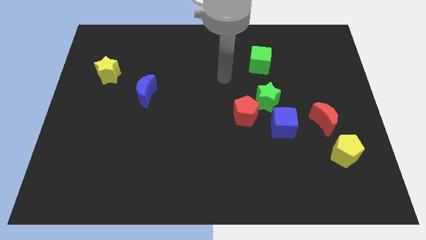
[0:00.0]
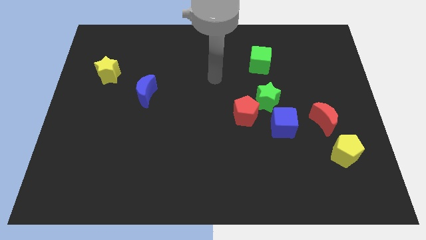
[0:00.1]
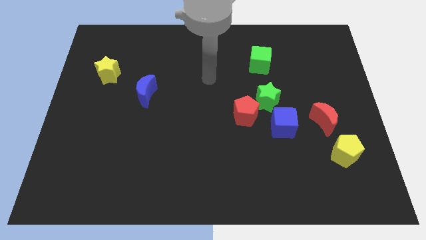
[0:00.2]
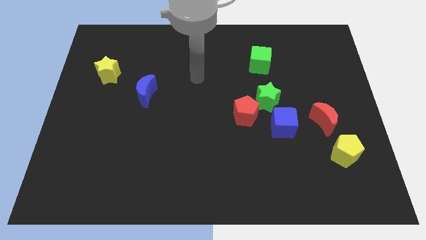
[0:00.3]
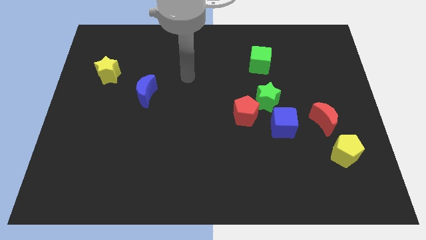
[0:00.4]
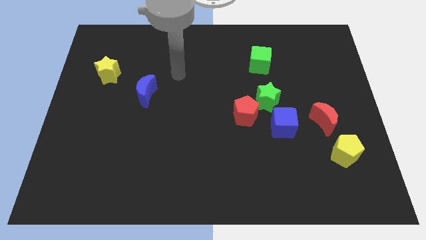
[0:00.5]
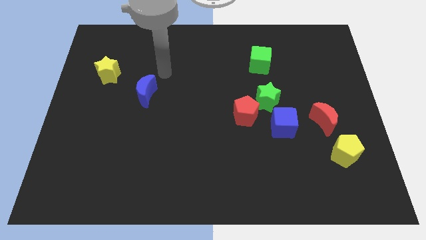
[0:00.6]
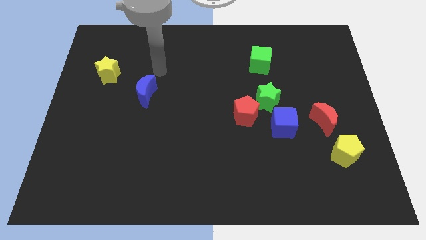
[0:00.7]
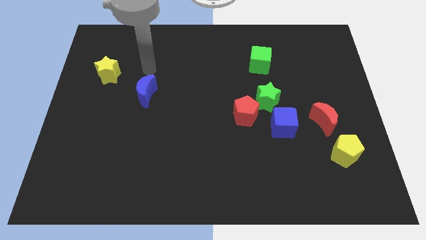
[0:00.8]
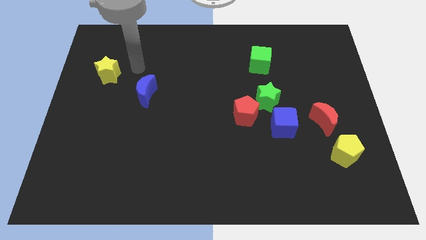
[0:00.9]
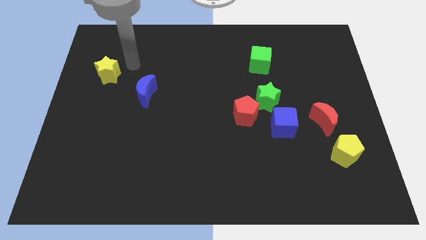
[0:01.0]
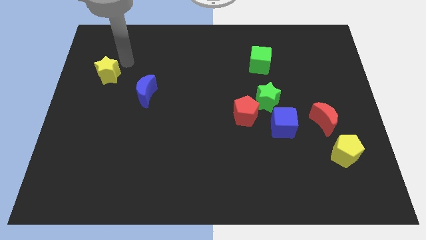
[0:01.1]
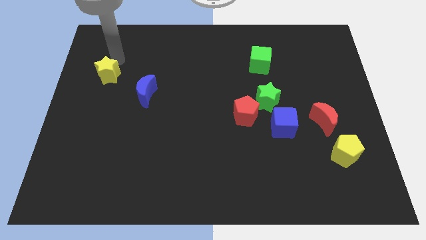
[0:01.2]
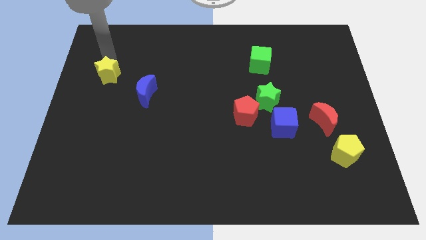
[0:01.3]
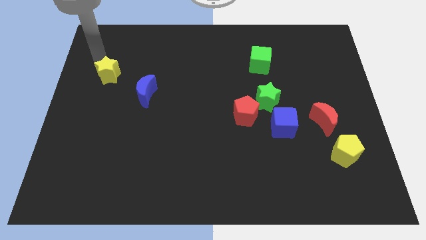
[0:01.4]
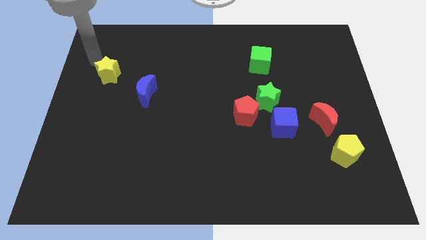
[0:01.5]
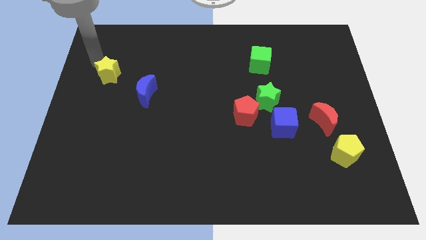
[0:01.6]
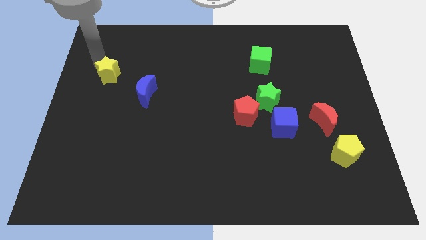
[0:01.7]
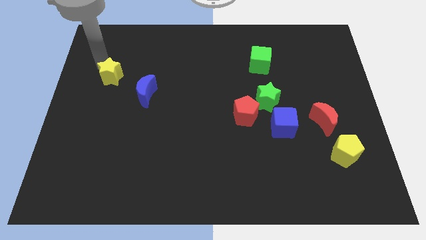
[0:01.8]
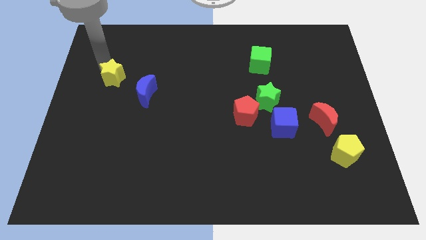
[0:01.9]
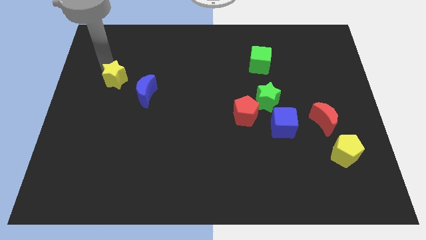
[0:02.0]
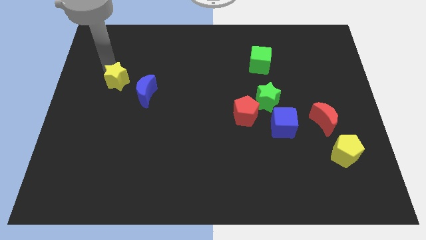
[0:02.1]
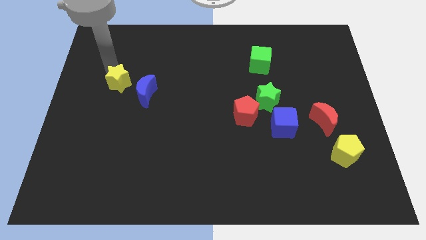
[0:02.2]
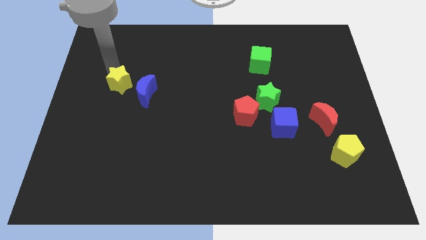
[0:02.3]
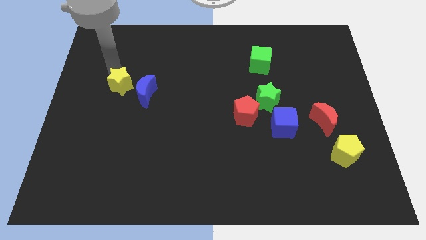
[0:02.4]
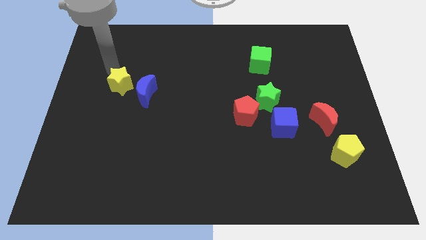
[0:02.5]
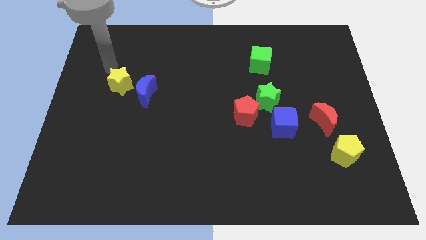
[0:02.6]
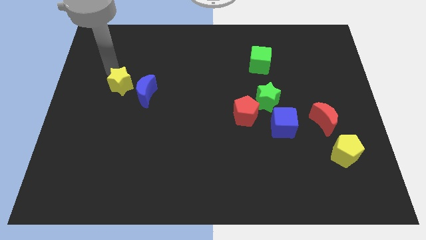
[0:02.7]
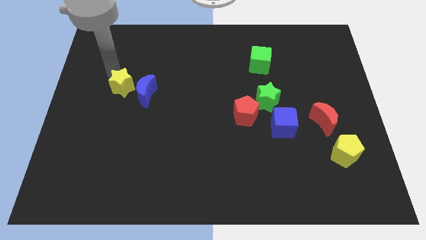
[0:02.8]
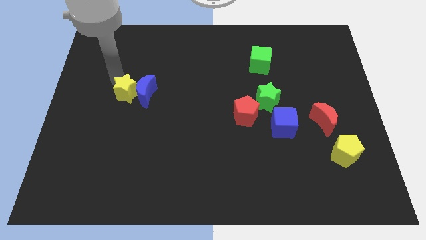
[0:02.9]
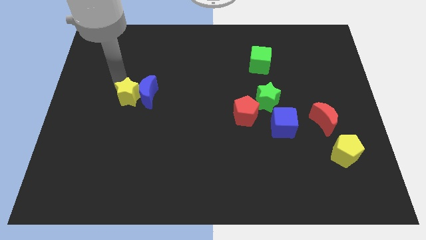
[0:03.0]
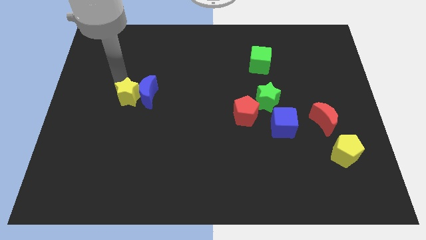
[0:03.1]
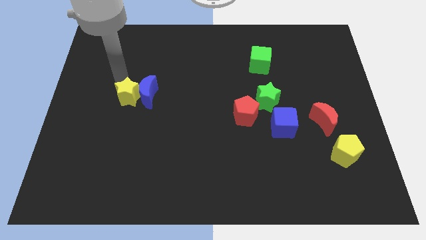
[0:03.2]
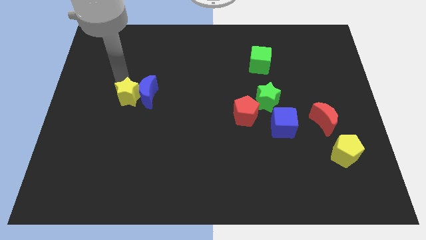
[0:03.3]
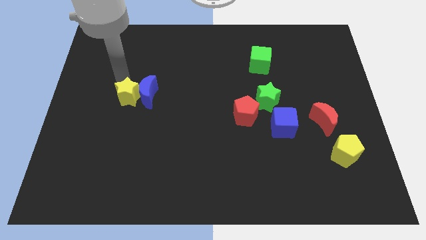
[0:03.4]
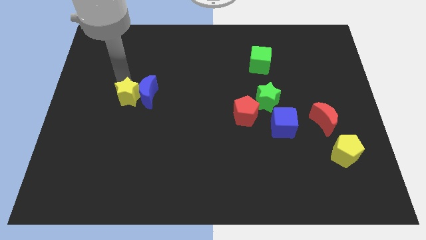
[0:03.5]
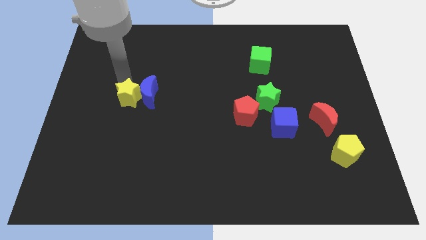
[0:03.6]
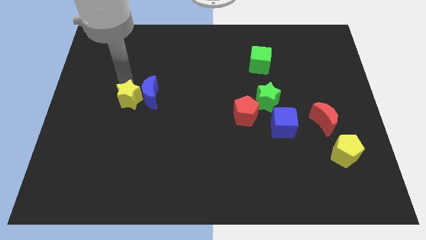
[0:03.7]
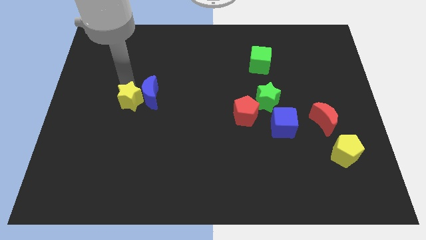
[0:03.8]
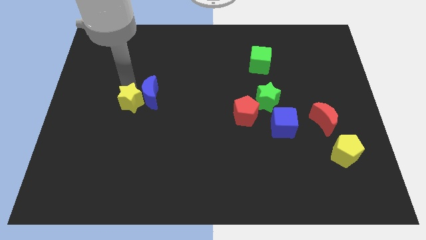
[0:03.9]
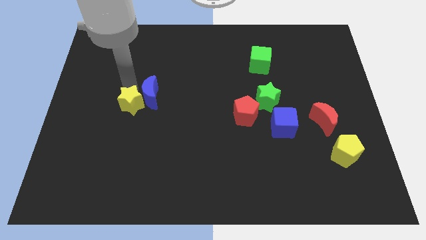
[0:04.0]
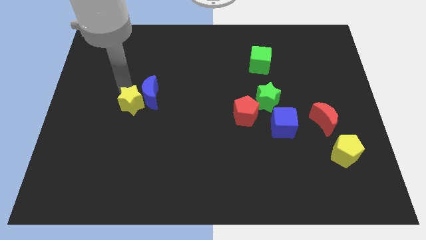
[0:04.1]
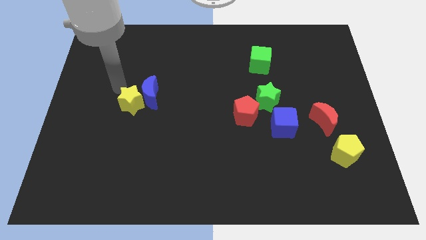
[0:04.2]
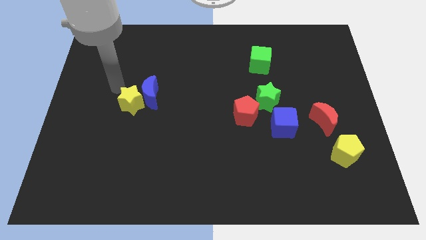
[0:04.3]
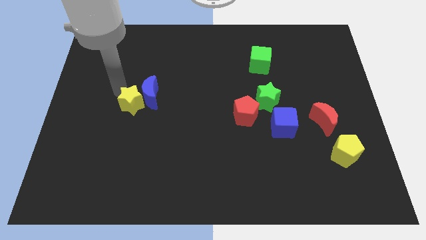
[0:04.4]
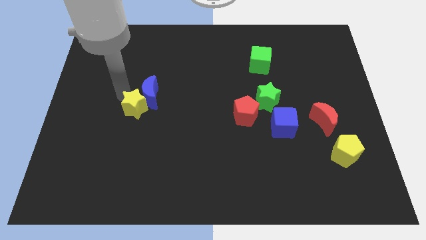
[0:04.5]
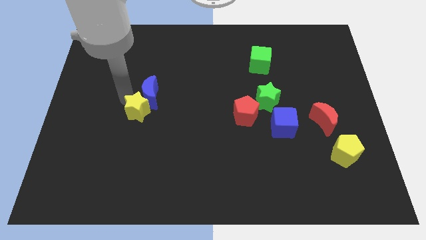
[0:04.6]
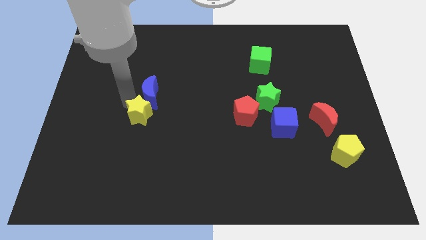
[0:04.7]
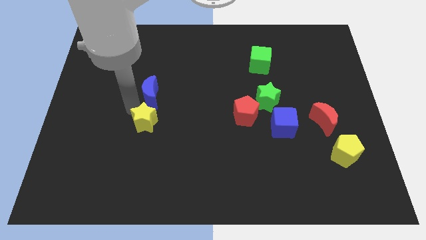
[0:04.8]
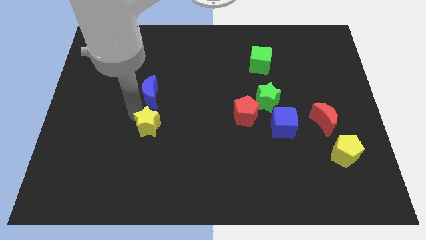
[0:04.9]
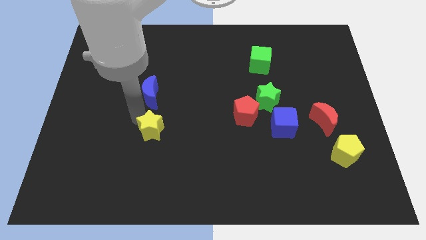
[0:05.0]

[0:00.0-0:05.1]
move the yellow star downwards and to the right

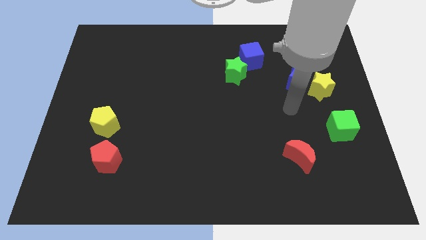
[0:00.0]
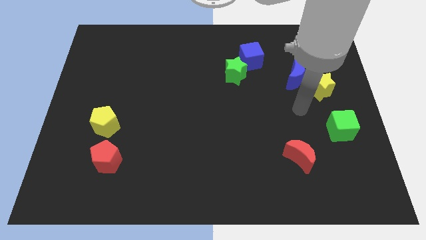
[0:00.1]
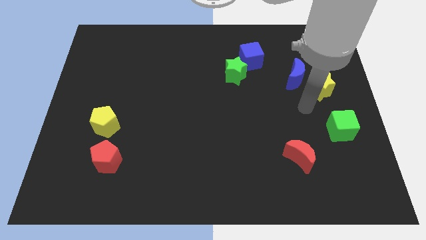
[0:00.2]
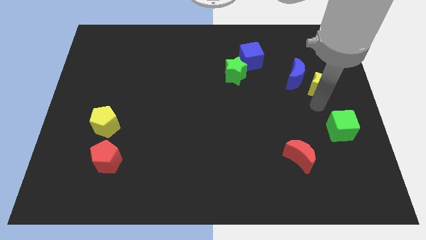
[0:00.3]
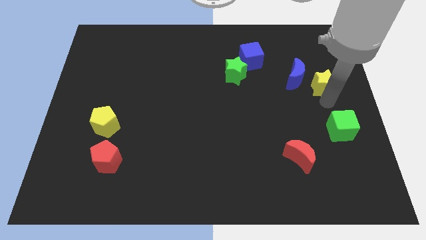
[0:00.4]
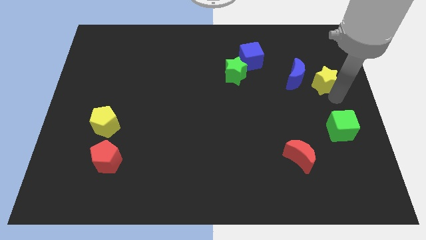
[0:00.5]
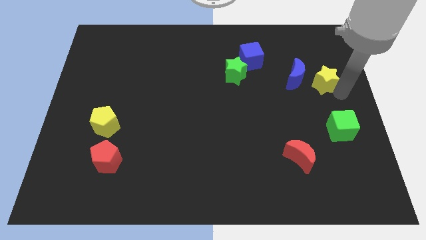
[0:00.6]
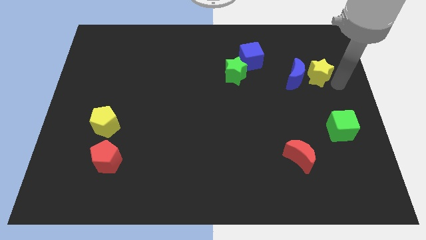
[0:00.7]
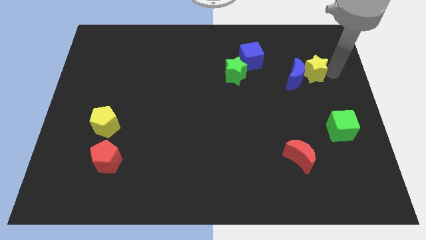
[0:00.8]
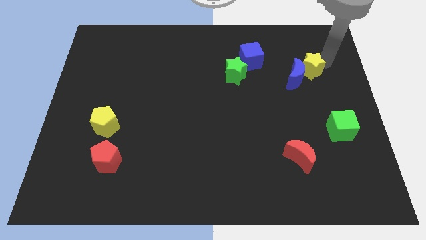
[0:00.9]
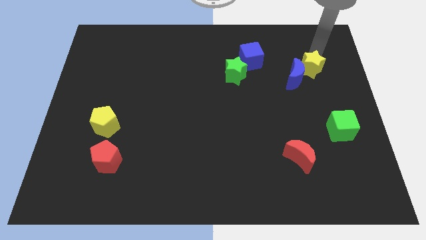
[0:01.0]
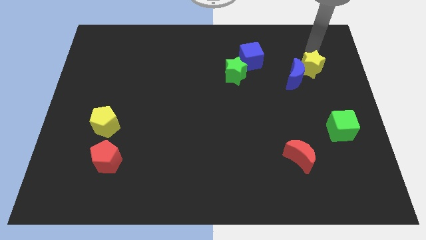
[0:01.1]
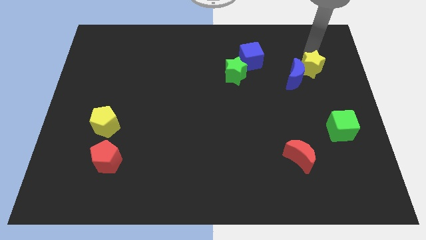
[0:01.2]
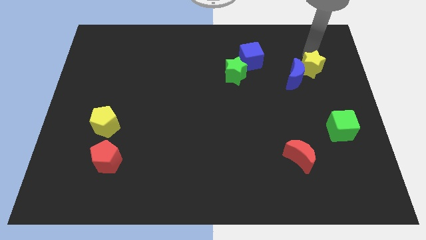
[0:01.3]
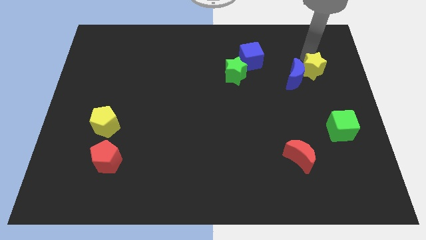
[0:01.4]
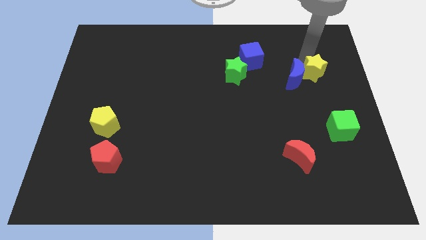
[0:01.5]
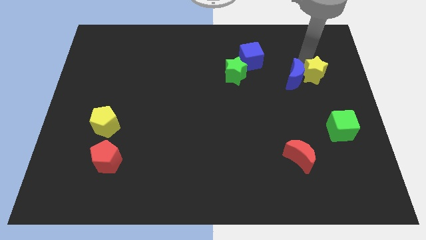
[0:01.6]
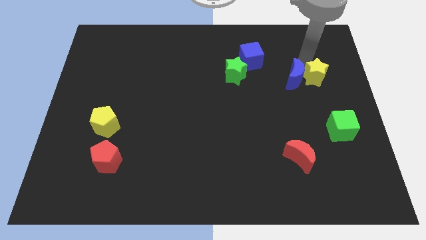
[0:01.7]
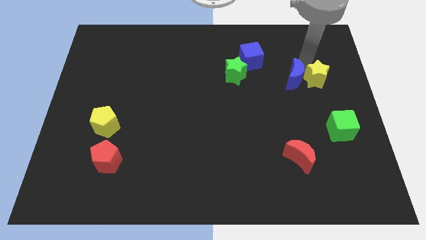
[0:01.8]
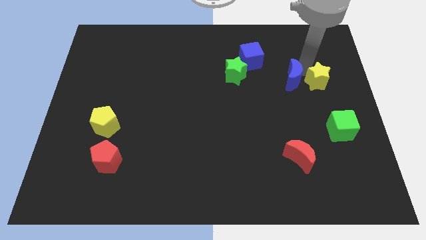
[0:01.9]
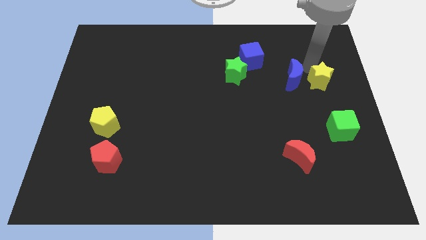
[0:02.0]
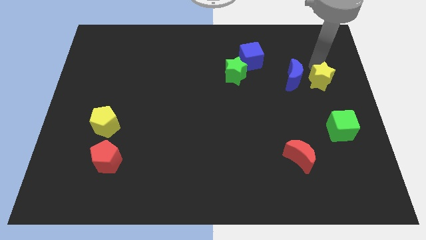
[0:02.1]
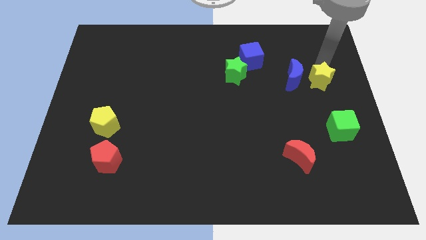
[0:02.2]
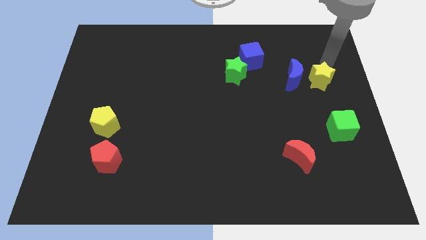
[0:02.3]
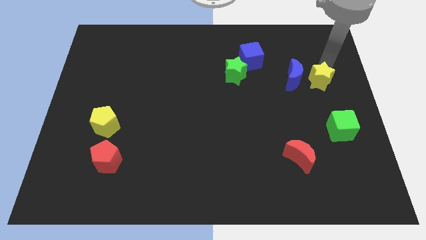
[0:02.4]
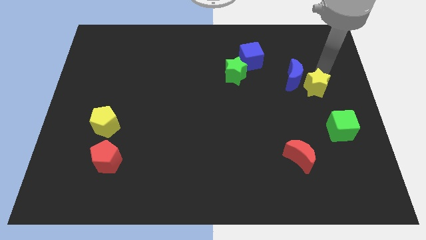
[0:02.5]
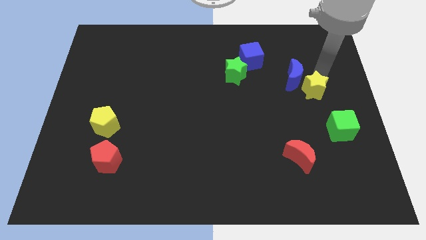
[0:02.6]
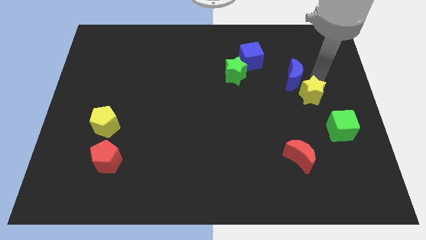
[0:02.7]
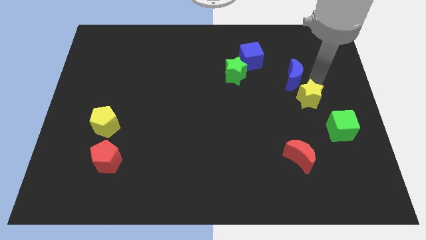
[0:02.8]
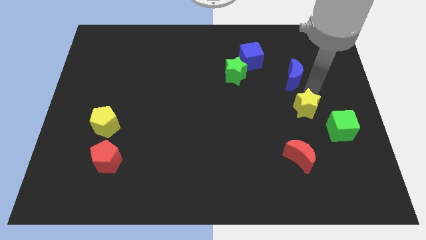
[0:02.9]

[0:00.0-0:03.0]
slightly move the yellow star down and left diagonally

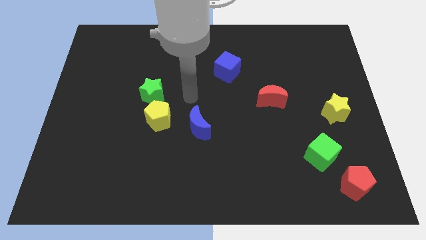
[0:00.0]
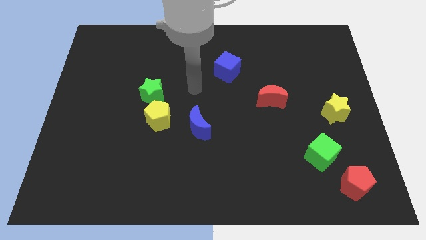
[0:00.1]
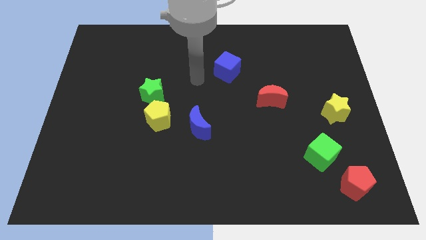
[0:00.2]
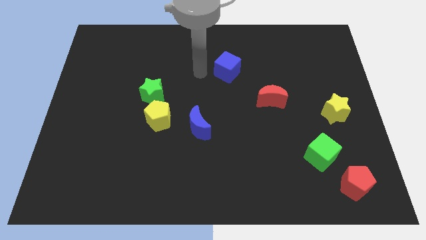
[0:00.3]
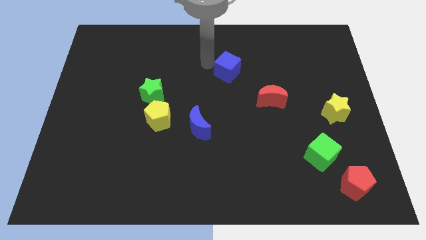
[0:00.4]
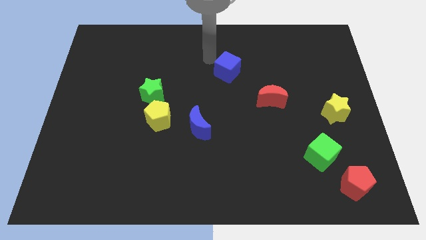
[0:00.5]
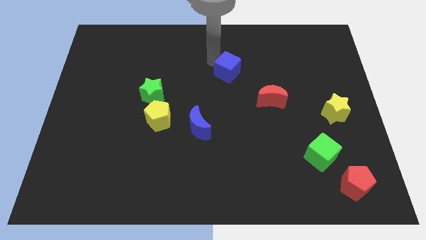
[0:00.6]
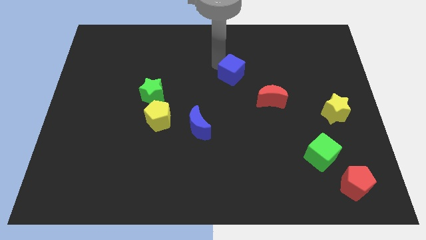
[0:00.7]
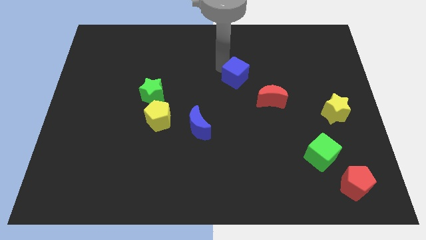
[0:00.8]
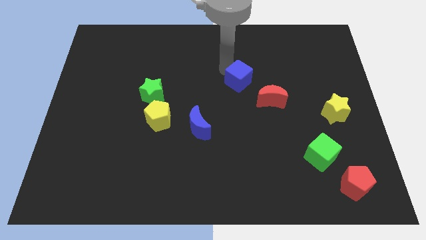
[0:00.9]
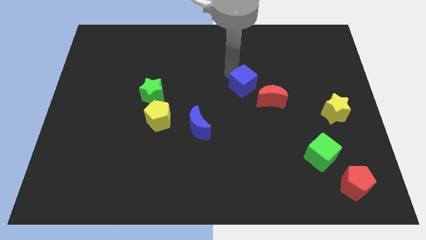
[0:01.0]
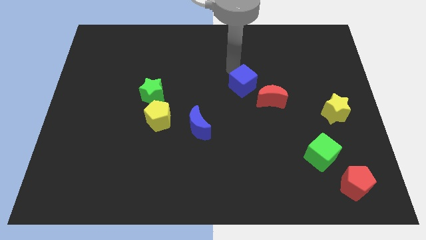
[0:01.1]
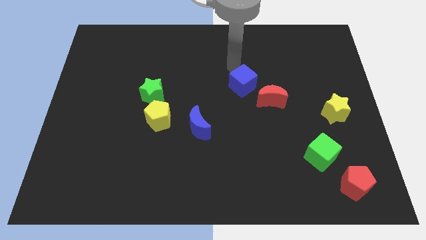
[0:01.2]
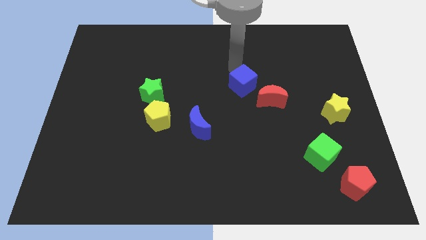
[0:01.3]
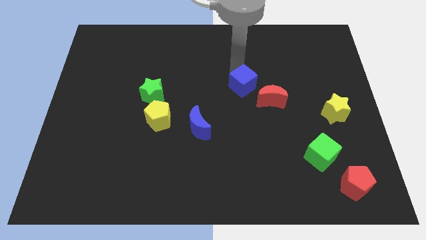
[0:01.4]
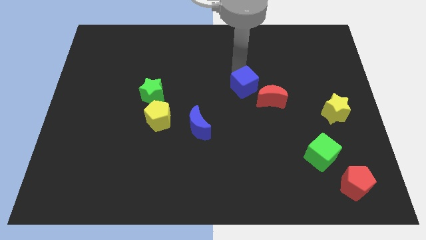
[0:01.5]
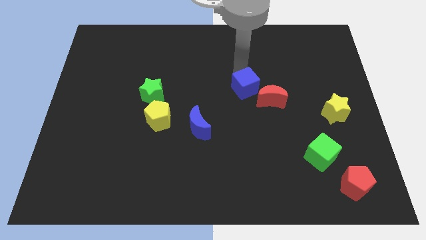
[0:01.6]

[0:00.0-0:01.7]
slide the blue cube a little bit down and right diagonally
